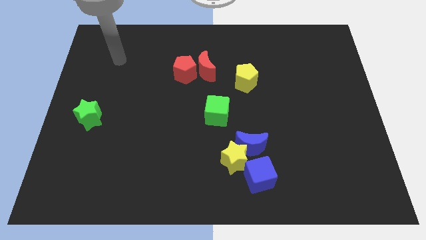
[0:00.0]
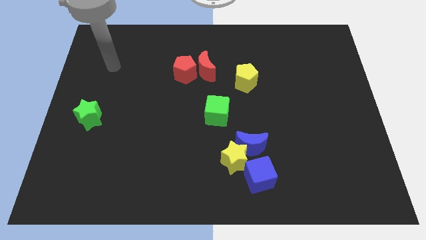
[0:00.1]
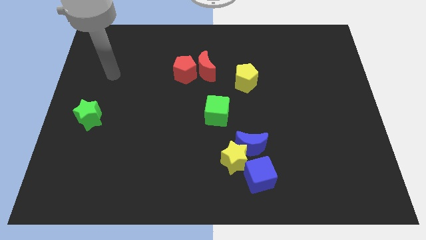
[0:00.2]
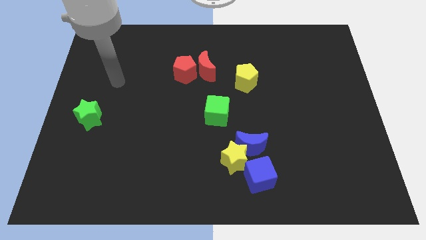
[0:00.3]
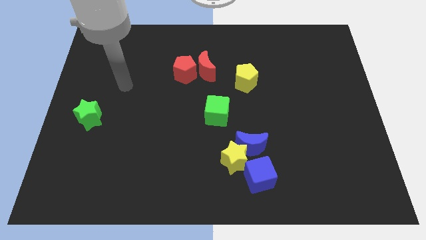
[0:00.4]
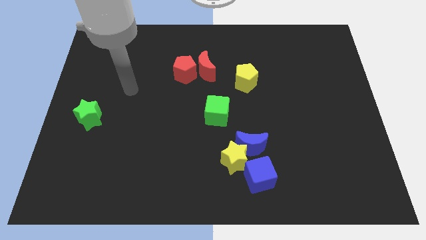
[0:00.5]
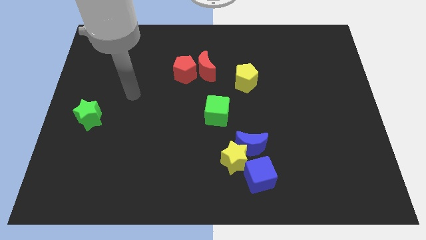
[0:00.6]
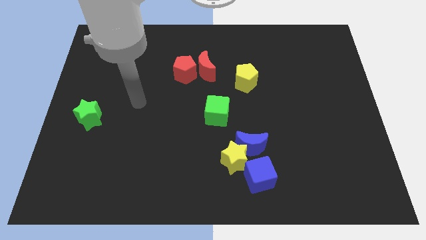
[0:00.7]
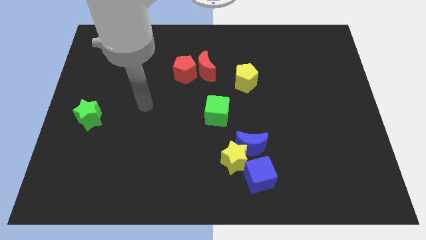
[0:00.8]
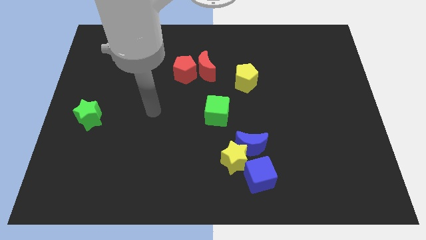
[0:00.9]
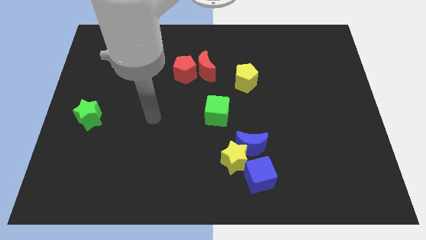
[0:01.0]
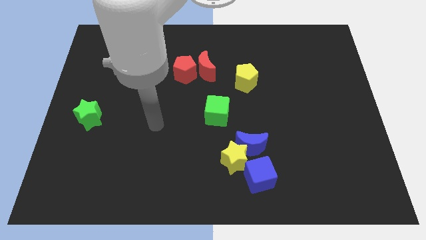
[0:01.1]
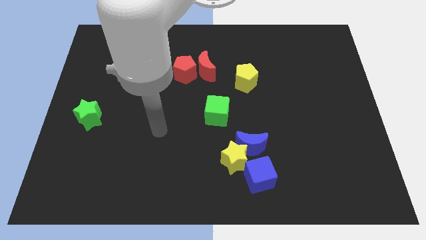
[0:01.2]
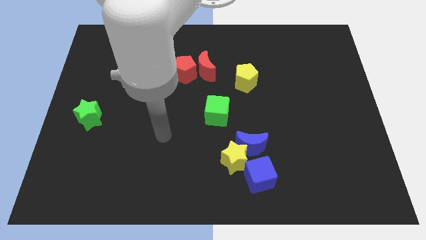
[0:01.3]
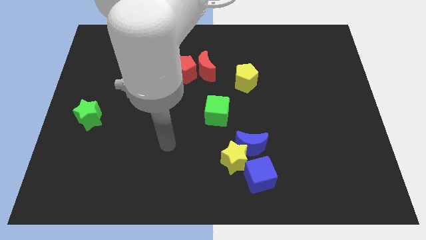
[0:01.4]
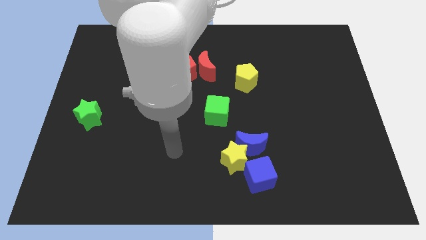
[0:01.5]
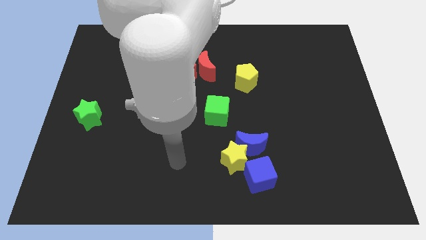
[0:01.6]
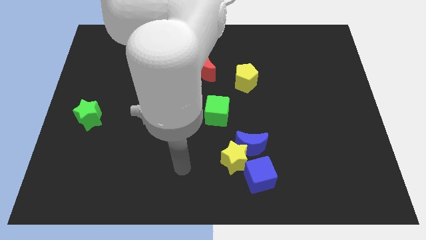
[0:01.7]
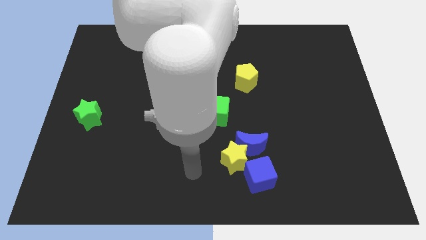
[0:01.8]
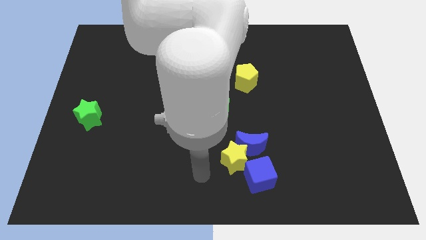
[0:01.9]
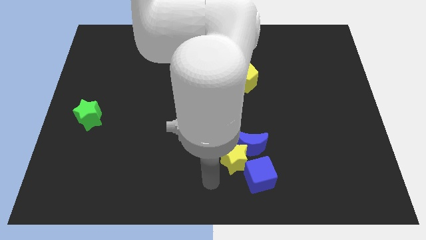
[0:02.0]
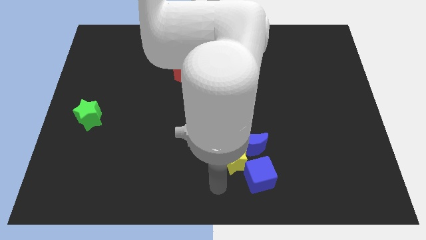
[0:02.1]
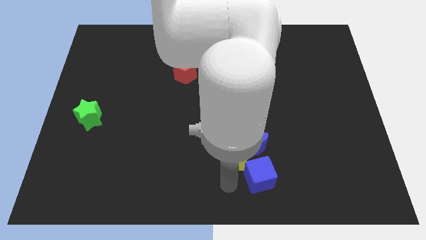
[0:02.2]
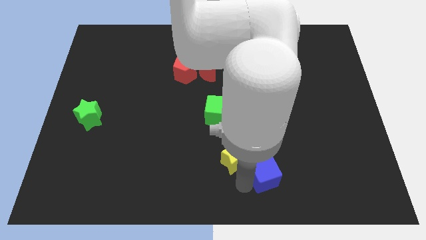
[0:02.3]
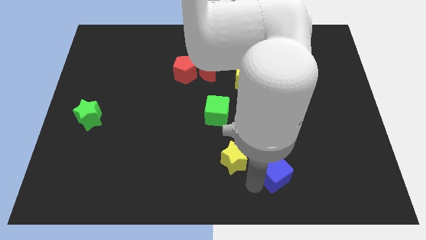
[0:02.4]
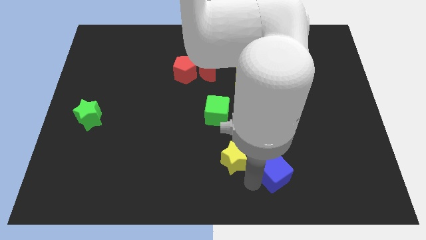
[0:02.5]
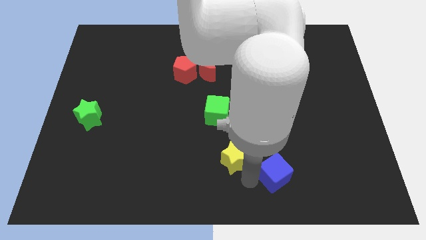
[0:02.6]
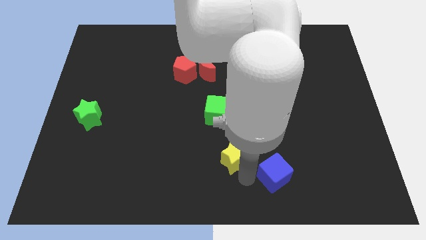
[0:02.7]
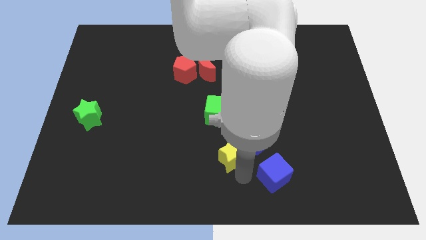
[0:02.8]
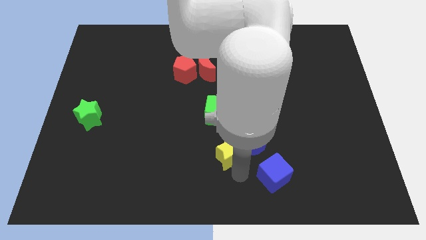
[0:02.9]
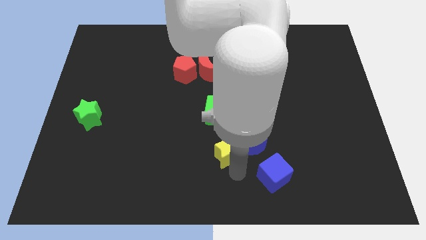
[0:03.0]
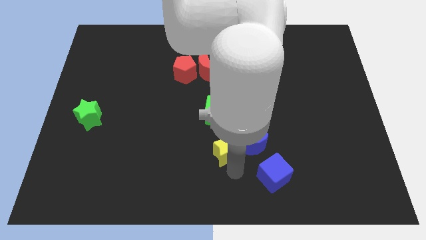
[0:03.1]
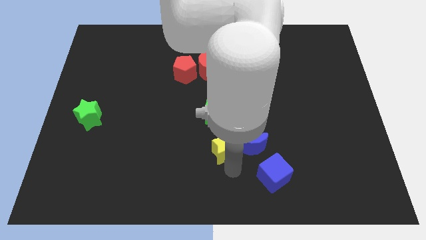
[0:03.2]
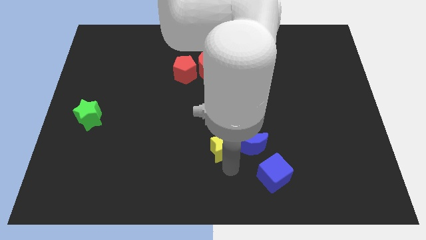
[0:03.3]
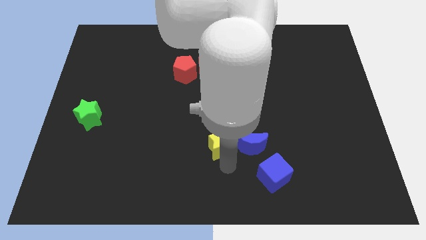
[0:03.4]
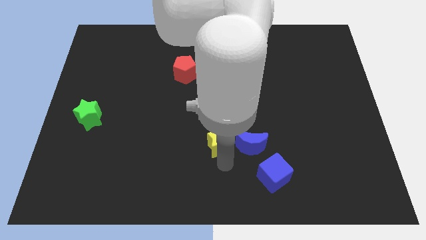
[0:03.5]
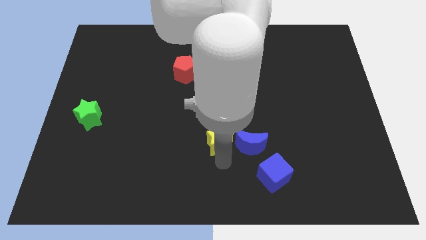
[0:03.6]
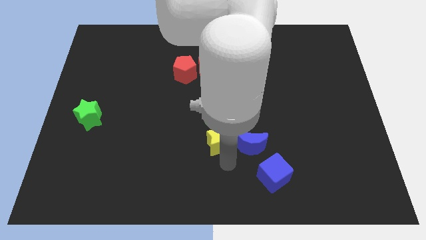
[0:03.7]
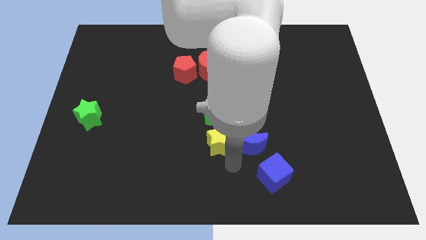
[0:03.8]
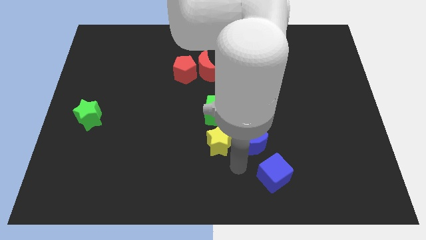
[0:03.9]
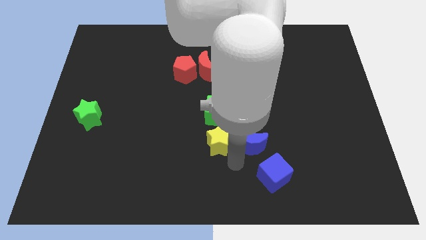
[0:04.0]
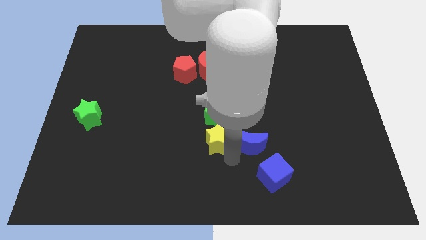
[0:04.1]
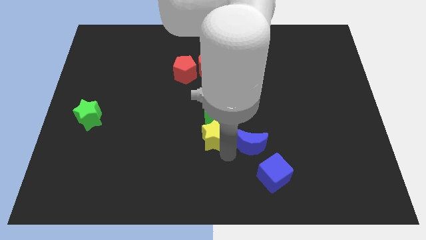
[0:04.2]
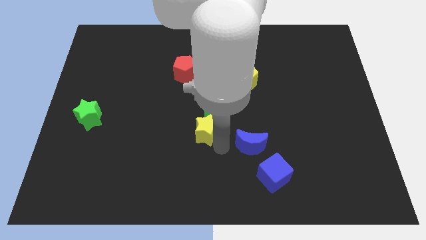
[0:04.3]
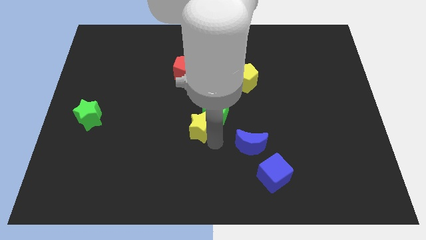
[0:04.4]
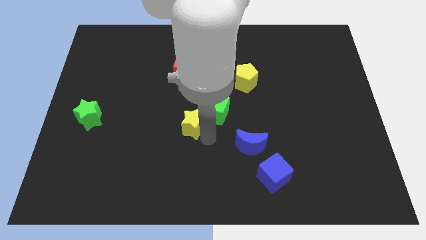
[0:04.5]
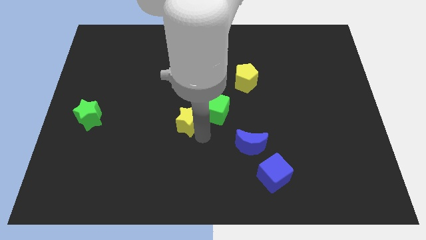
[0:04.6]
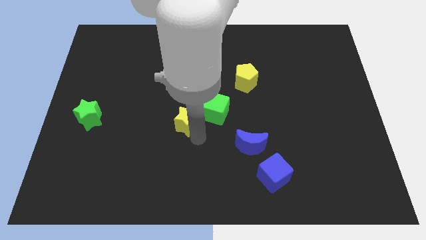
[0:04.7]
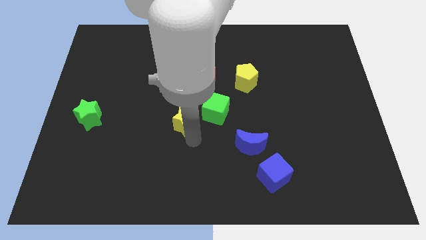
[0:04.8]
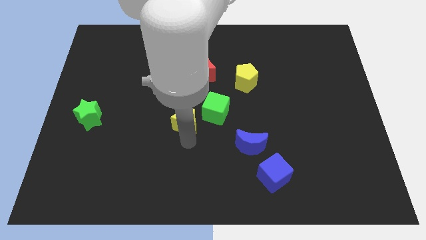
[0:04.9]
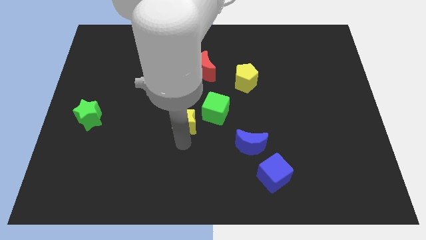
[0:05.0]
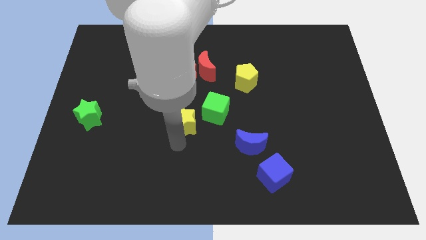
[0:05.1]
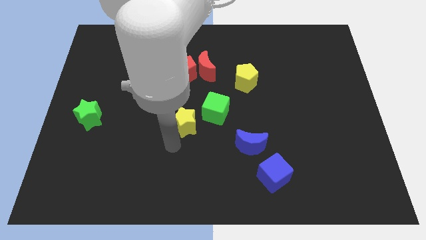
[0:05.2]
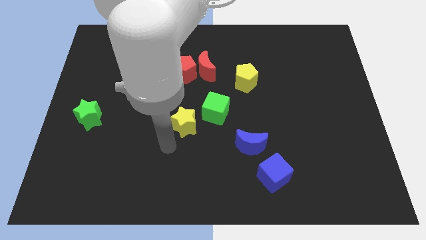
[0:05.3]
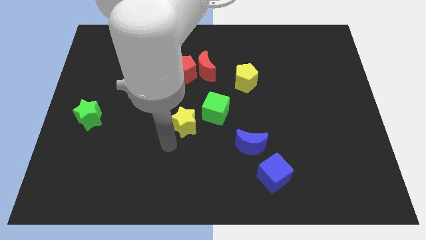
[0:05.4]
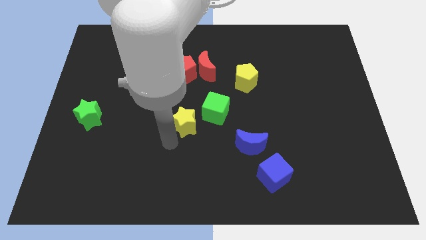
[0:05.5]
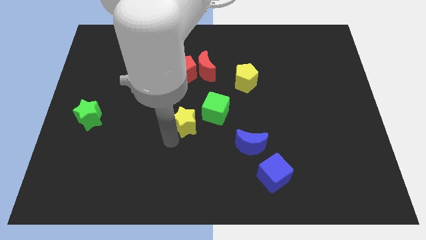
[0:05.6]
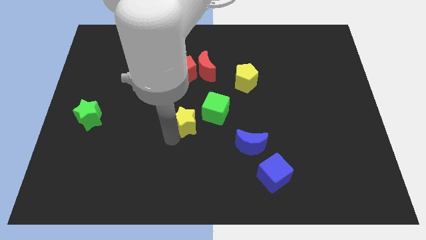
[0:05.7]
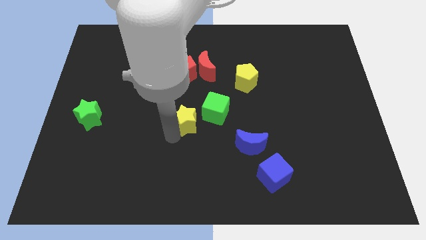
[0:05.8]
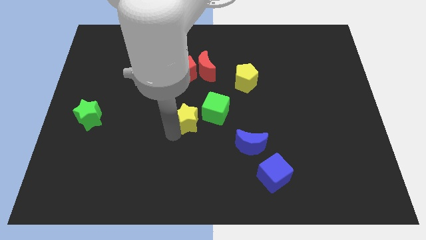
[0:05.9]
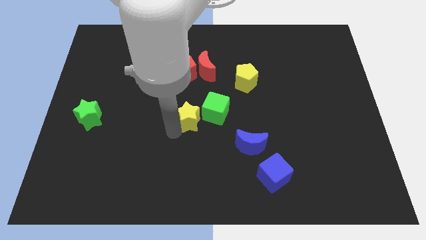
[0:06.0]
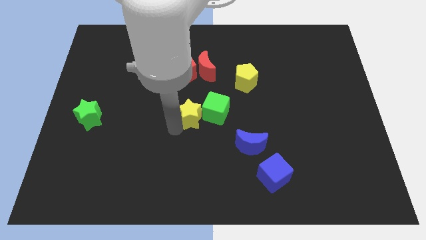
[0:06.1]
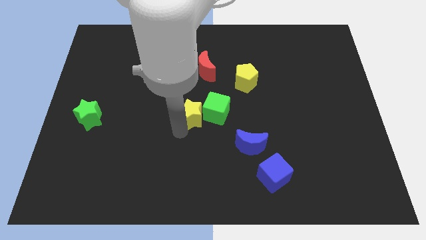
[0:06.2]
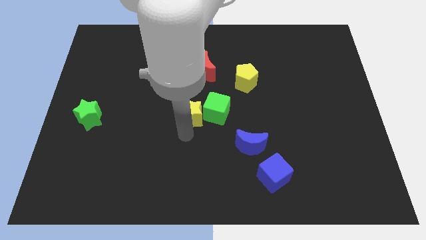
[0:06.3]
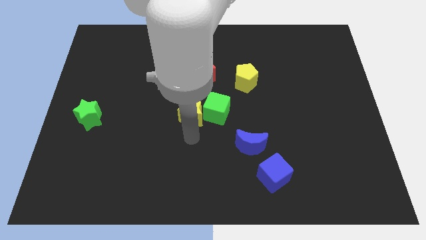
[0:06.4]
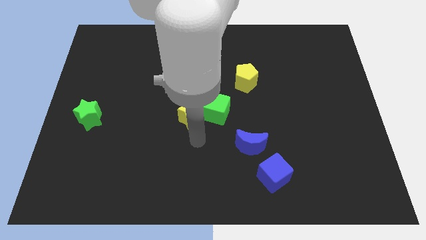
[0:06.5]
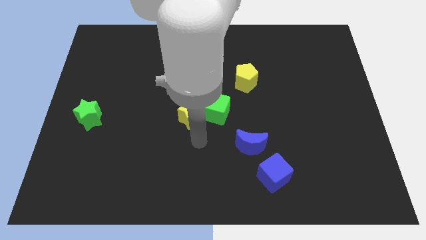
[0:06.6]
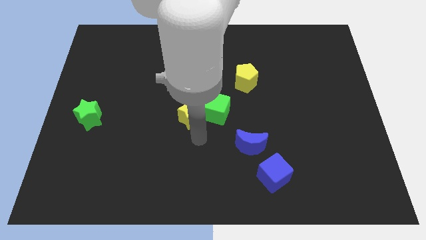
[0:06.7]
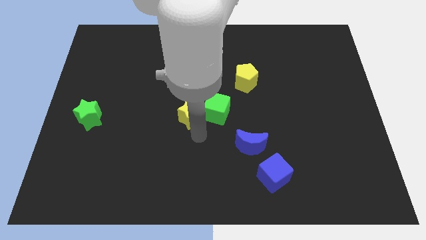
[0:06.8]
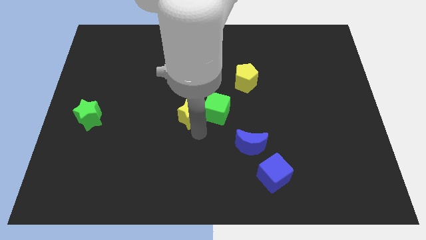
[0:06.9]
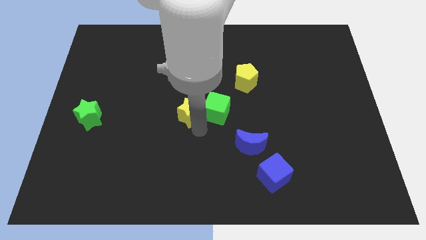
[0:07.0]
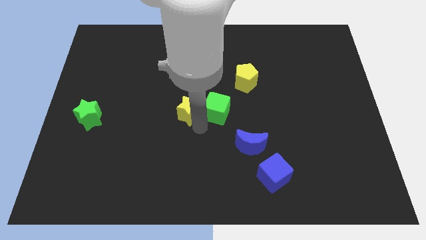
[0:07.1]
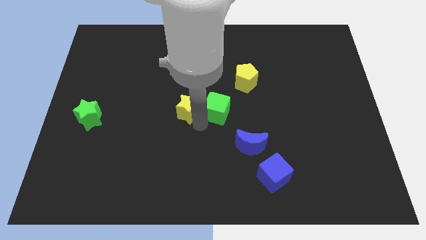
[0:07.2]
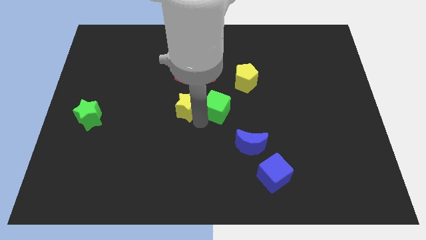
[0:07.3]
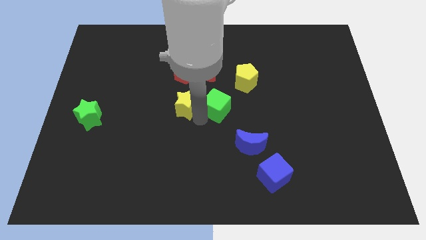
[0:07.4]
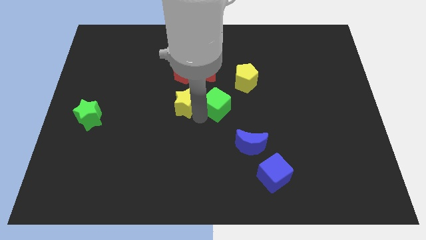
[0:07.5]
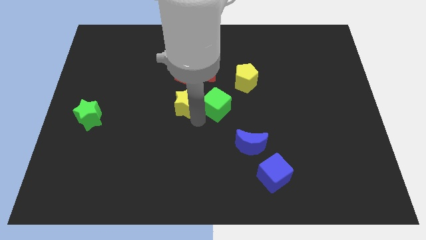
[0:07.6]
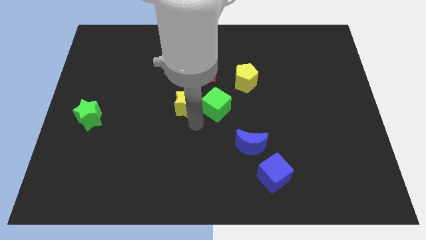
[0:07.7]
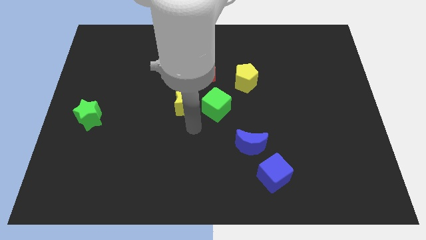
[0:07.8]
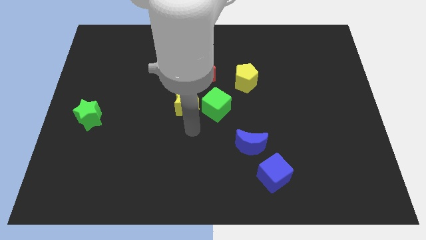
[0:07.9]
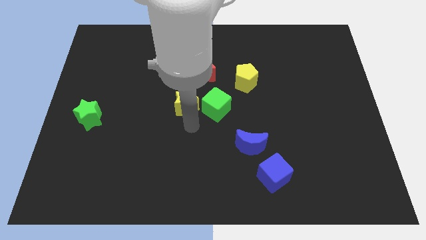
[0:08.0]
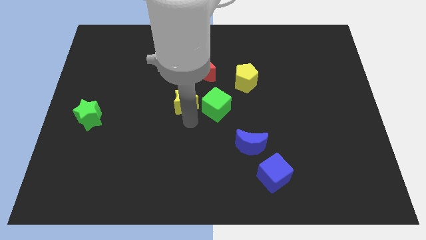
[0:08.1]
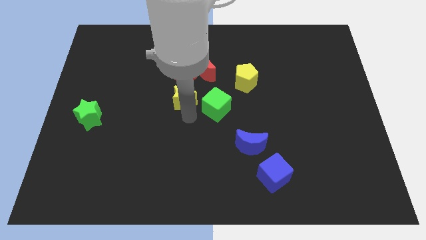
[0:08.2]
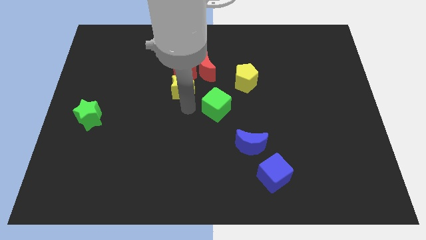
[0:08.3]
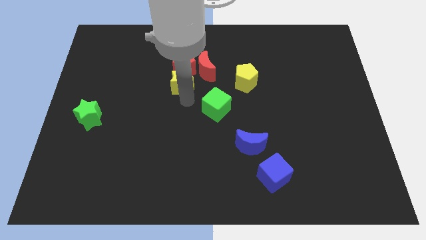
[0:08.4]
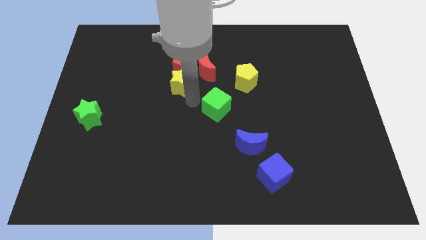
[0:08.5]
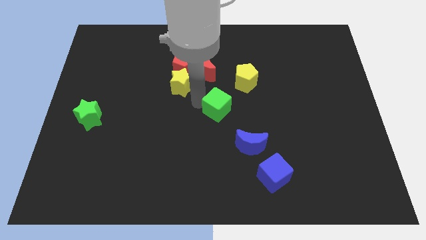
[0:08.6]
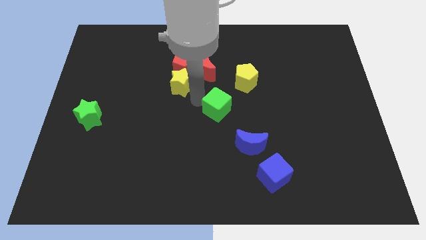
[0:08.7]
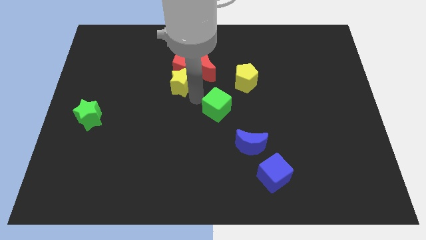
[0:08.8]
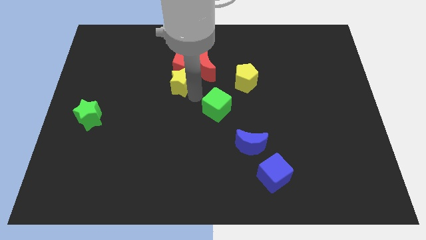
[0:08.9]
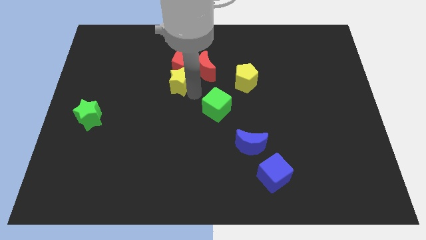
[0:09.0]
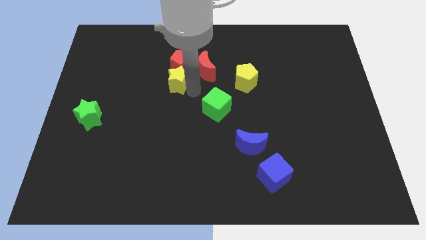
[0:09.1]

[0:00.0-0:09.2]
put the yellow star to the left side of the red moon
